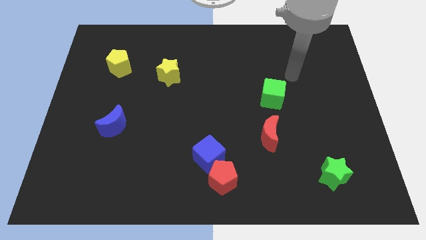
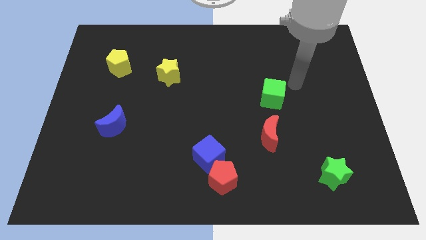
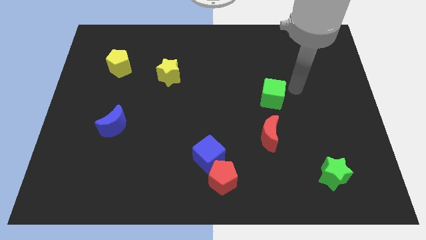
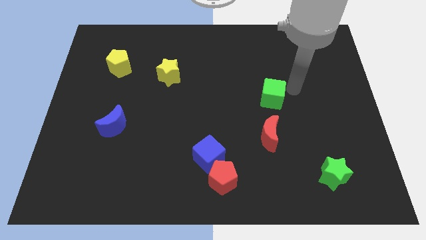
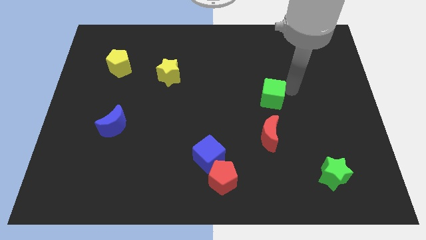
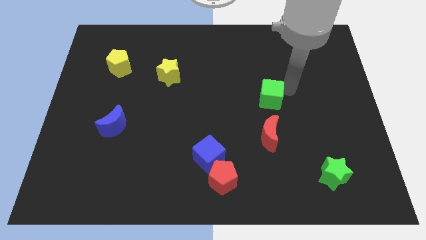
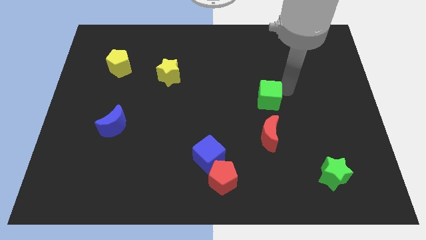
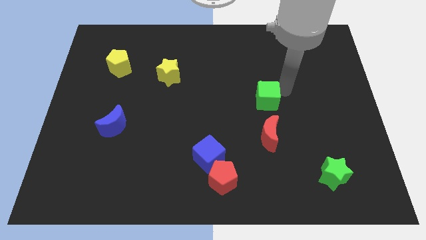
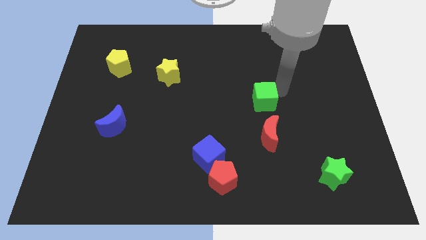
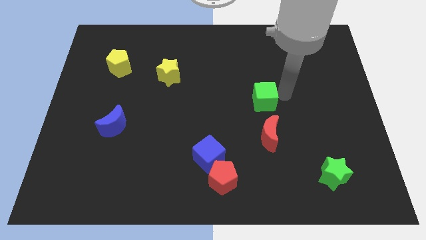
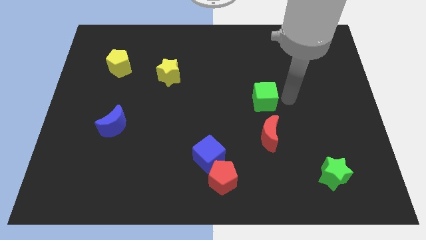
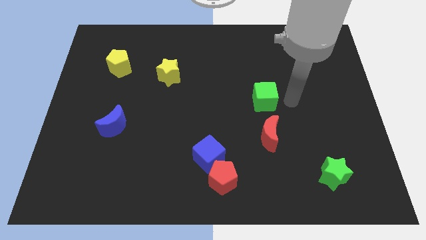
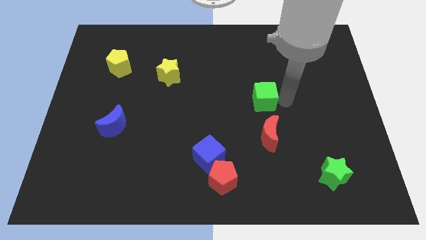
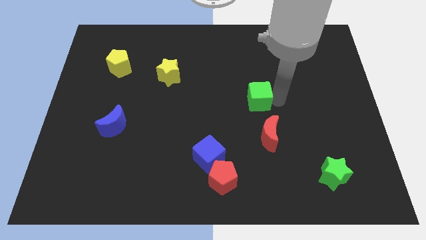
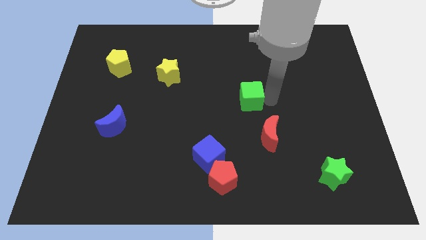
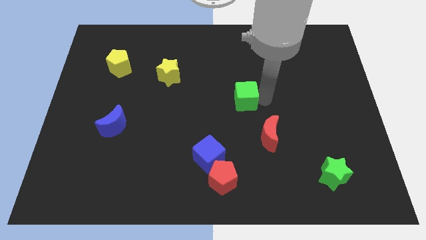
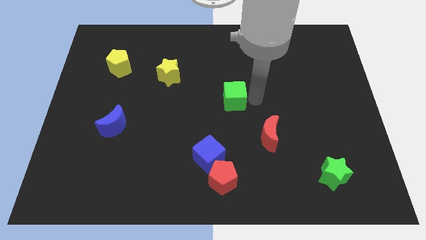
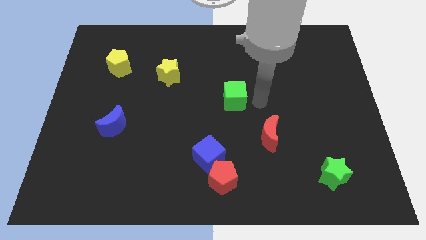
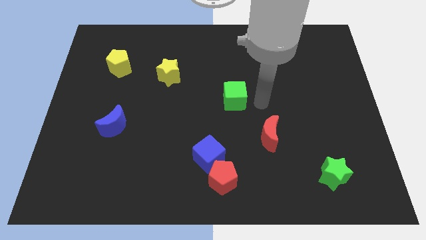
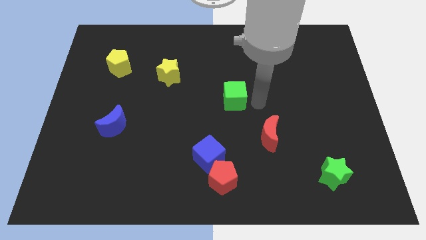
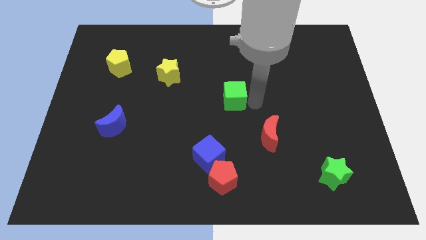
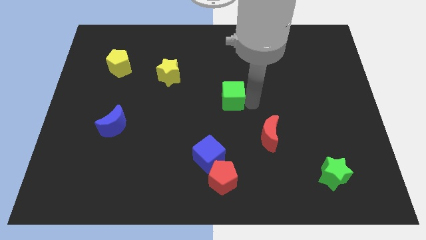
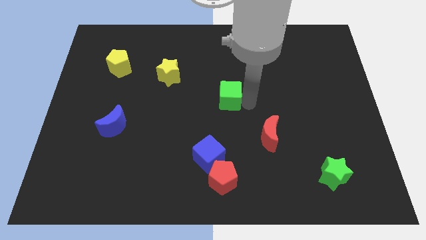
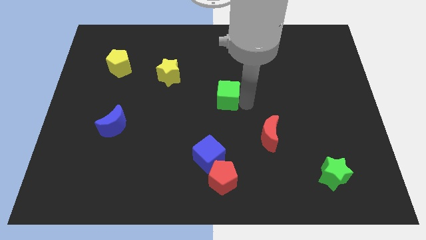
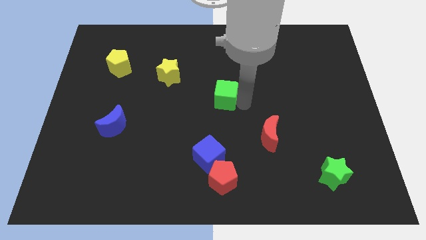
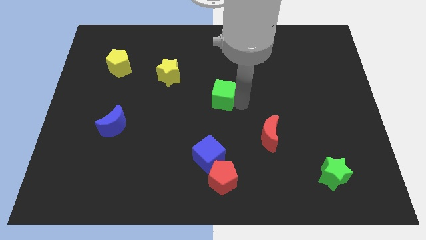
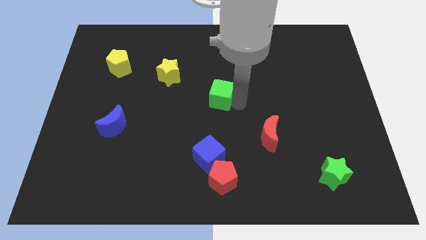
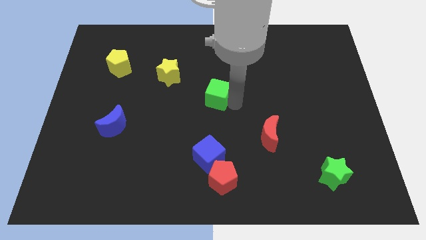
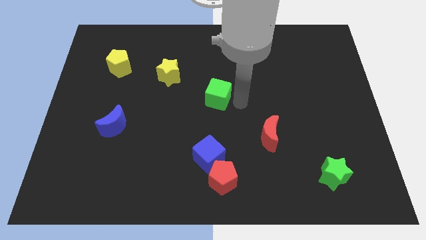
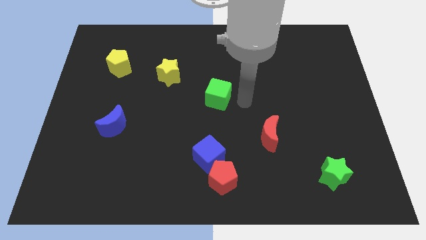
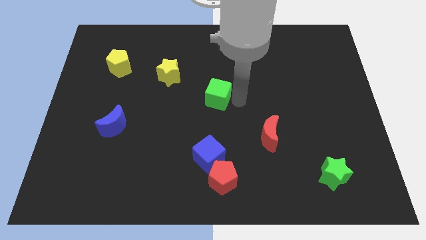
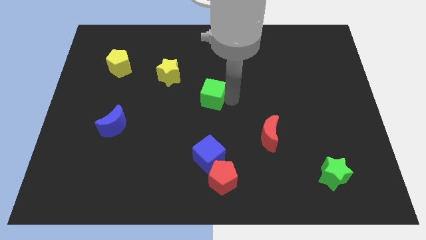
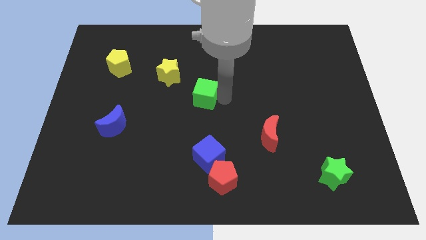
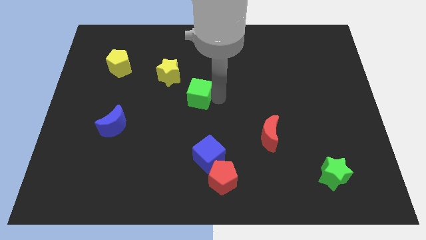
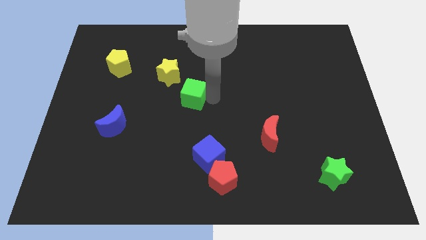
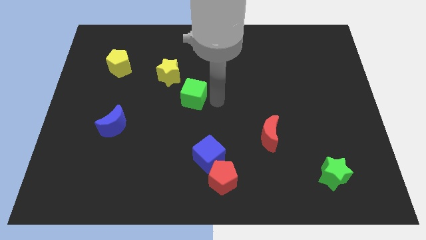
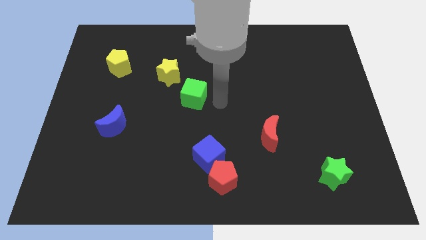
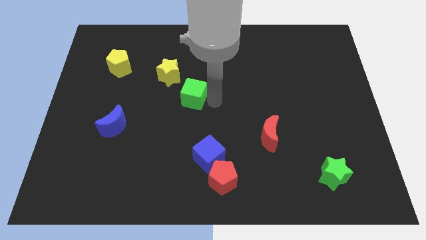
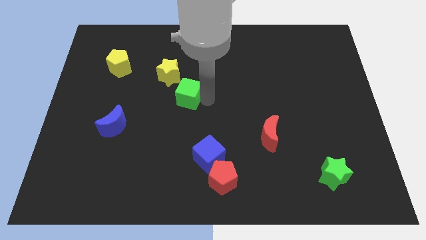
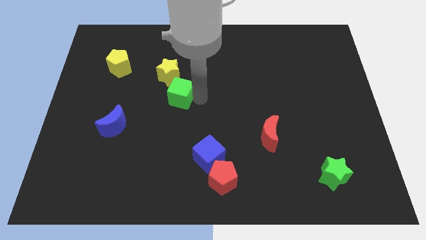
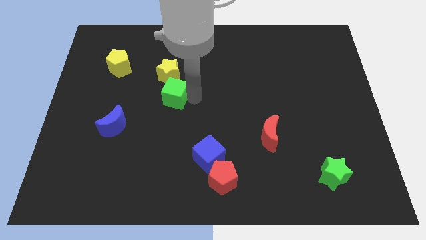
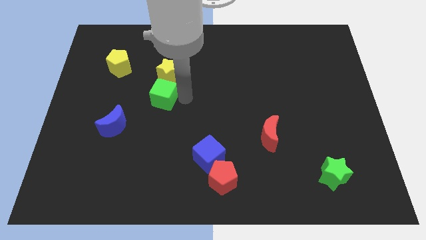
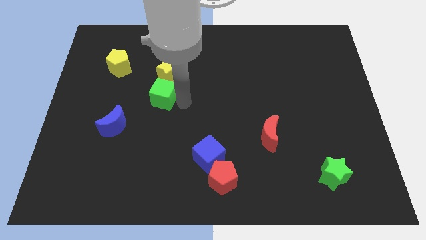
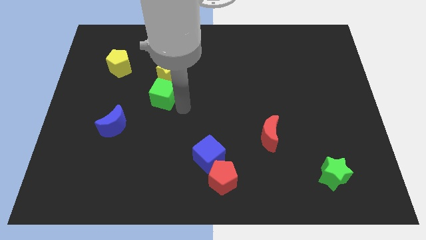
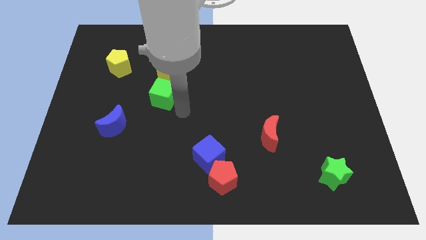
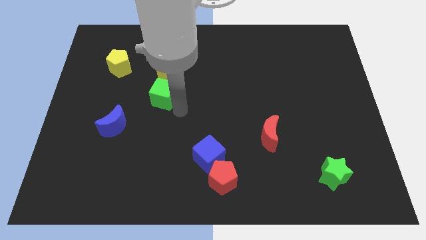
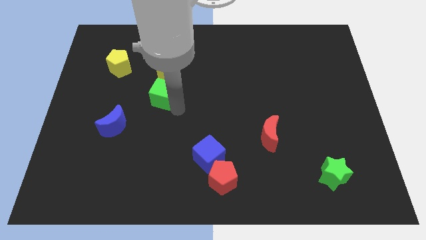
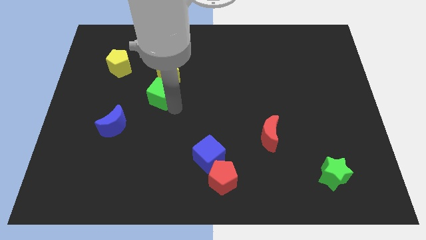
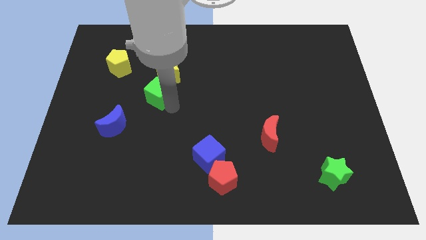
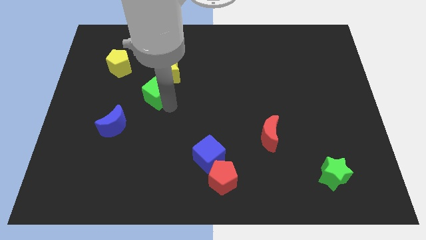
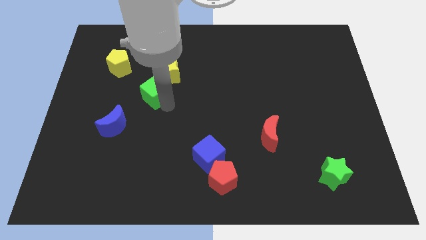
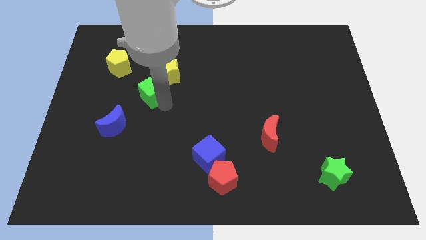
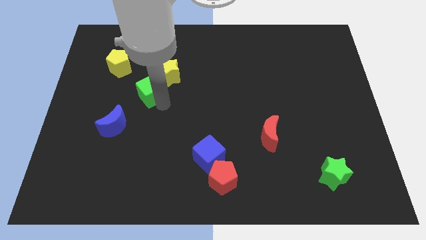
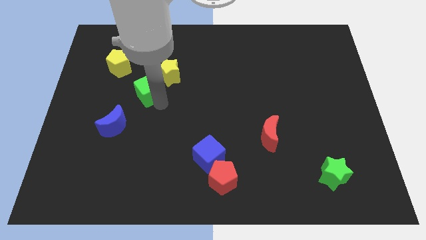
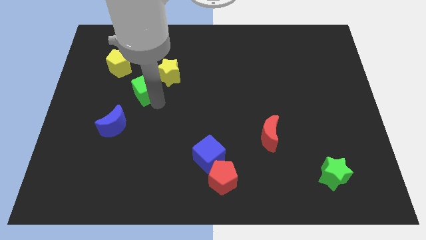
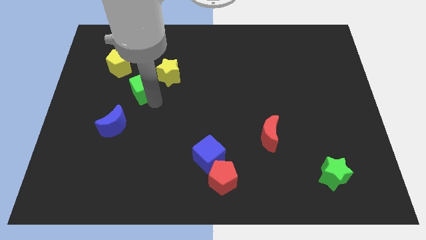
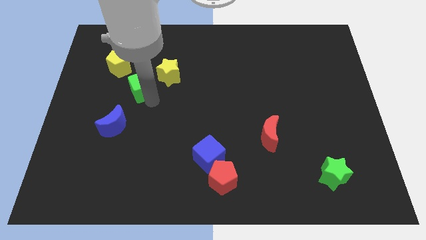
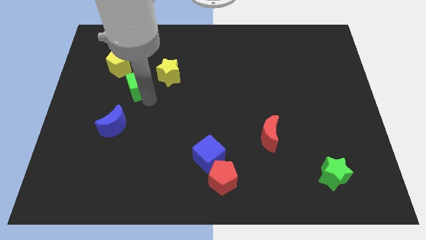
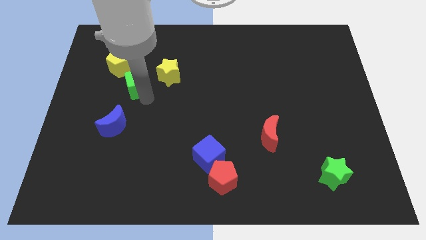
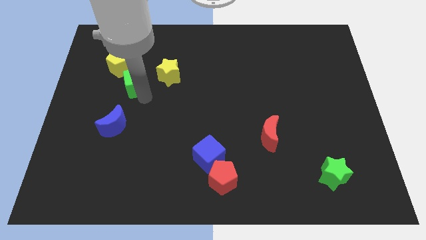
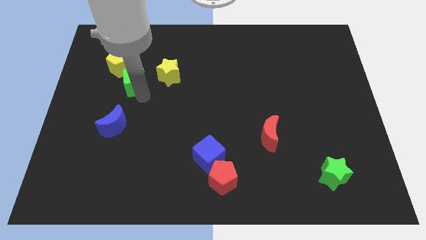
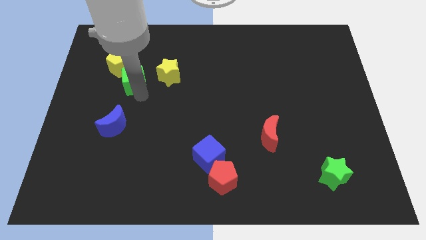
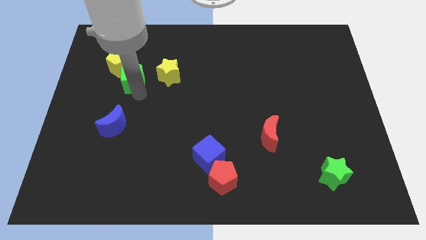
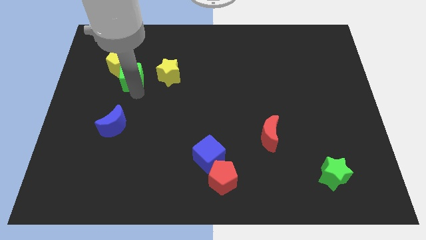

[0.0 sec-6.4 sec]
slide the green cube next to the yellow pentagon

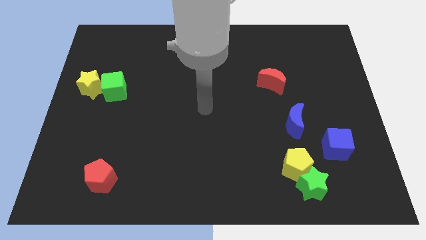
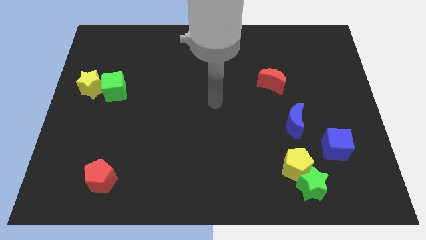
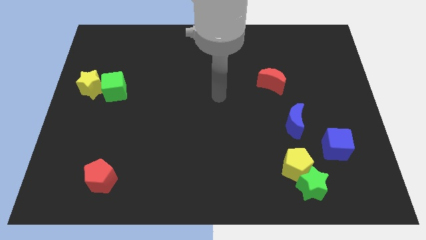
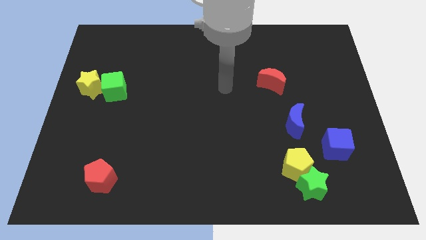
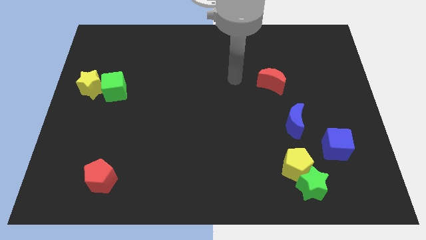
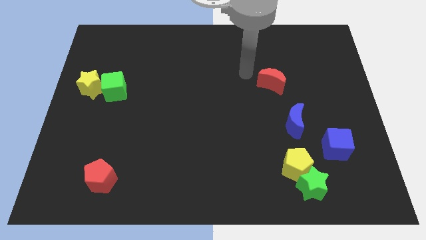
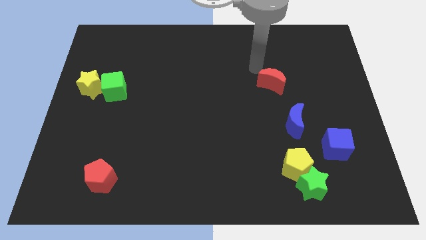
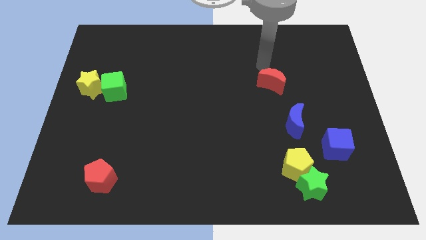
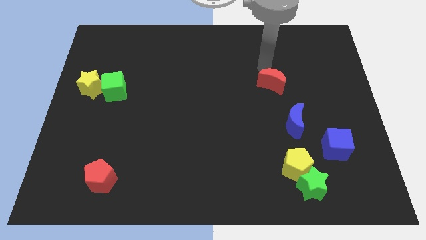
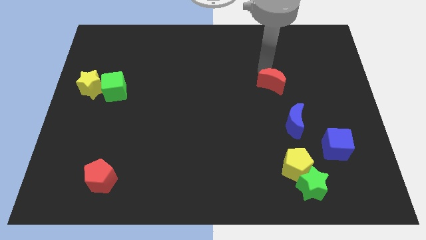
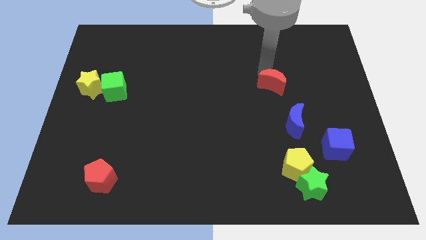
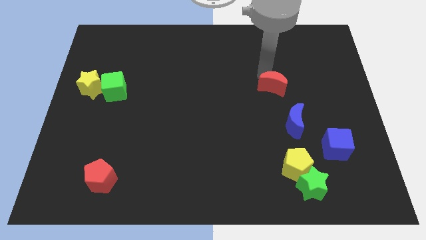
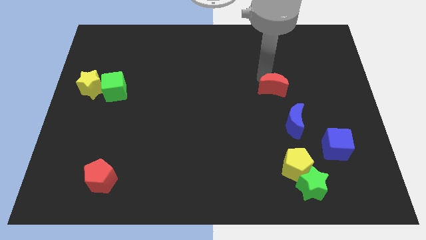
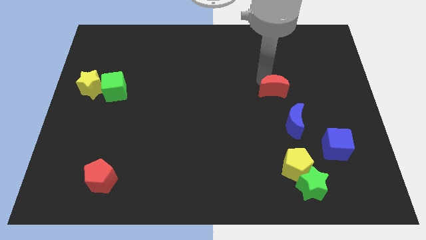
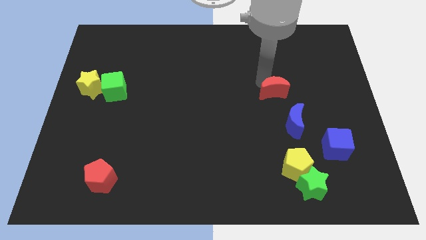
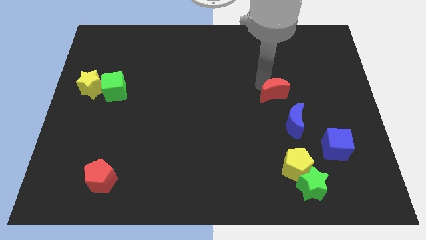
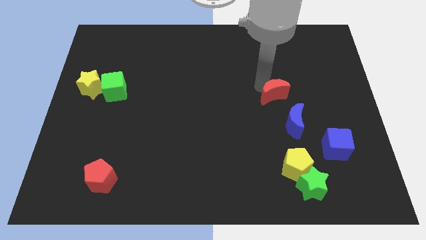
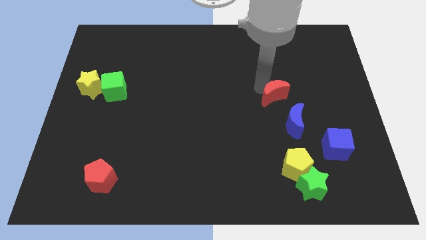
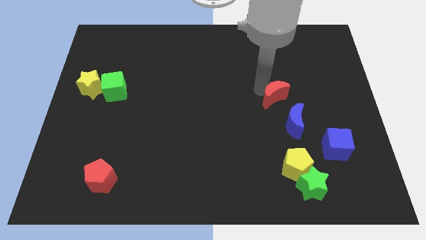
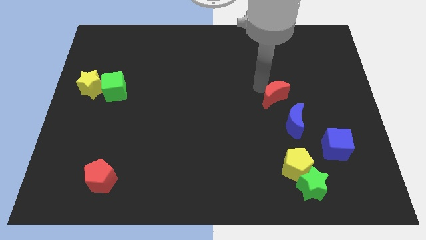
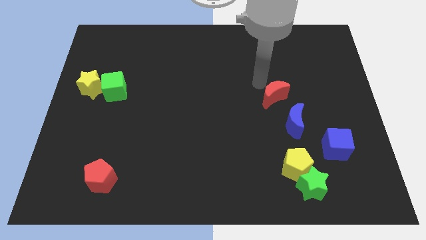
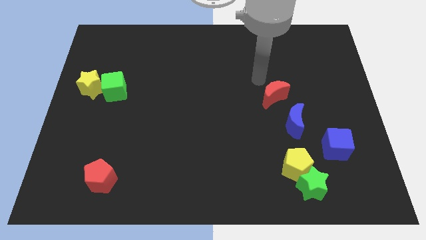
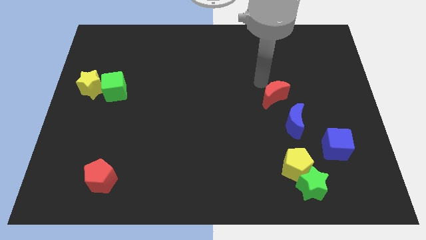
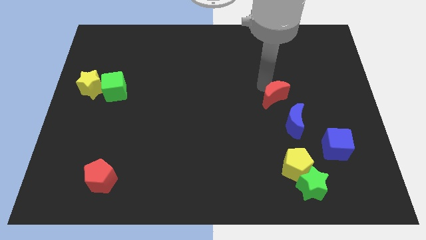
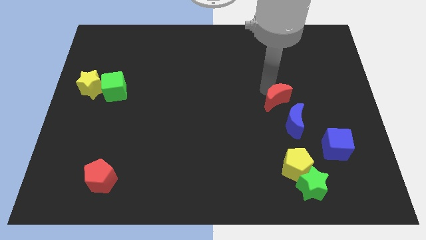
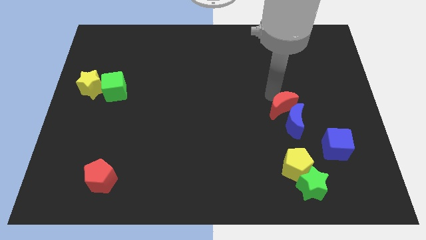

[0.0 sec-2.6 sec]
put the red moon next to the blue moon
